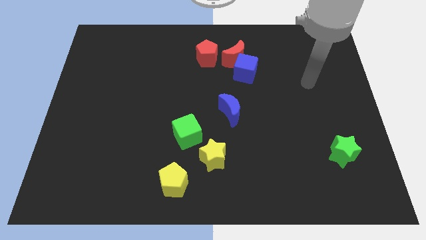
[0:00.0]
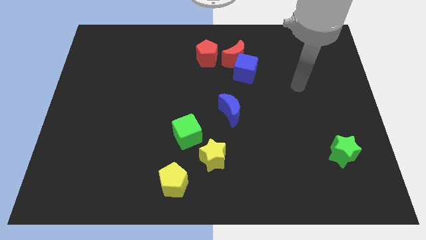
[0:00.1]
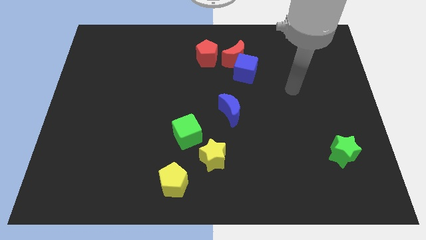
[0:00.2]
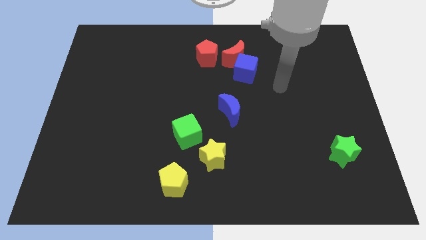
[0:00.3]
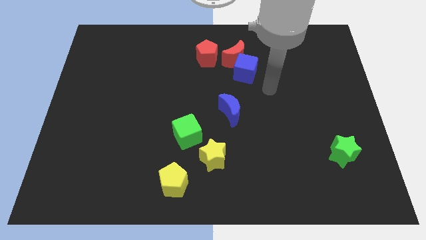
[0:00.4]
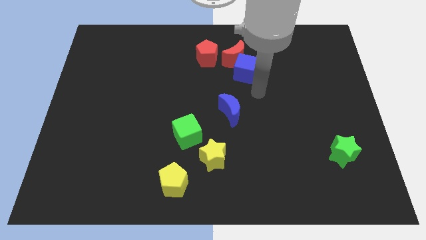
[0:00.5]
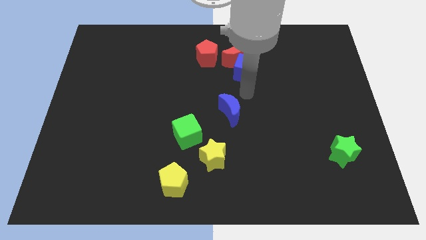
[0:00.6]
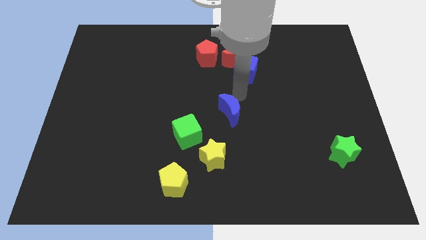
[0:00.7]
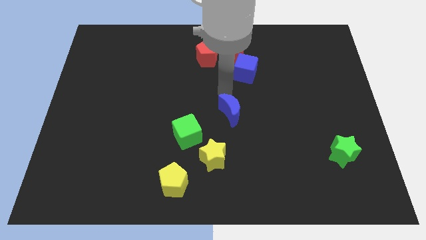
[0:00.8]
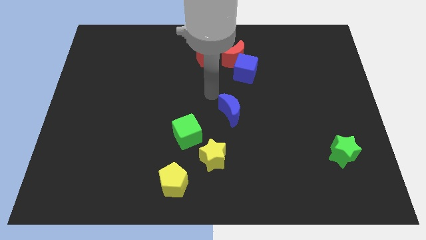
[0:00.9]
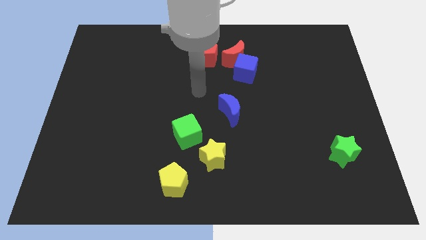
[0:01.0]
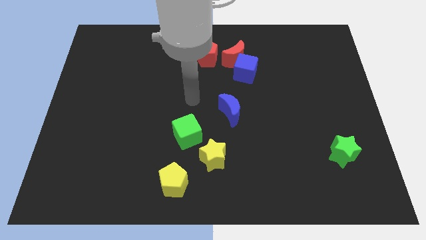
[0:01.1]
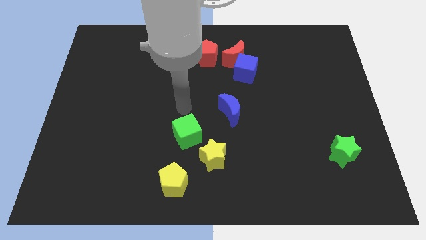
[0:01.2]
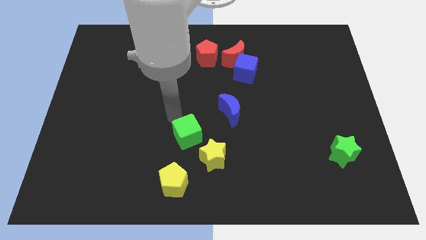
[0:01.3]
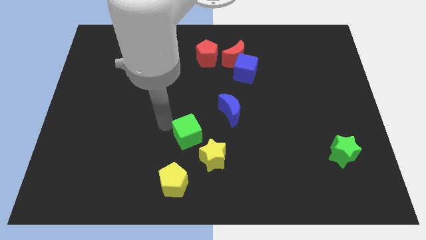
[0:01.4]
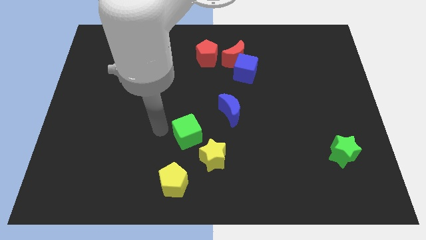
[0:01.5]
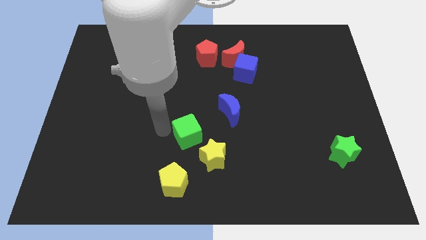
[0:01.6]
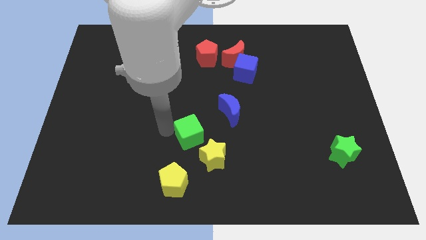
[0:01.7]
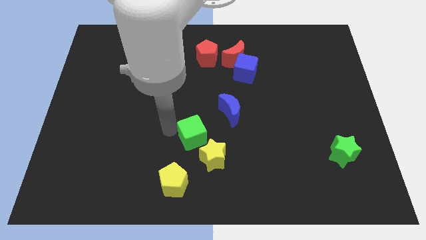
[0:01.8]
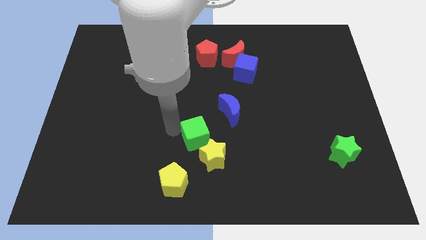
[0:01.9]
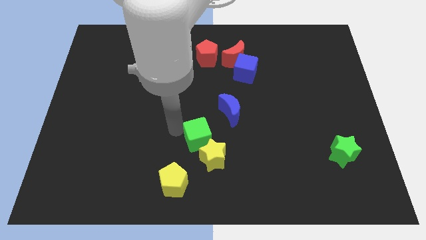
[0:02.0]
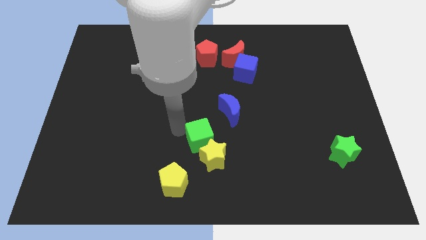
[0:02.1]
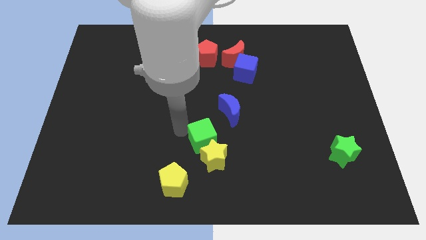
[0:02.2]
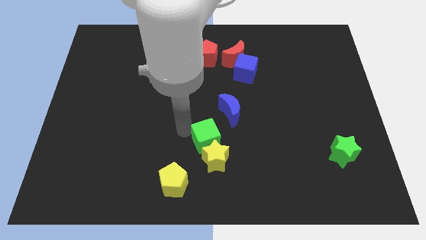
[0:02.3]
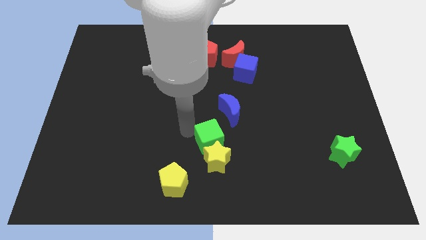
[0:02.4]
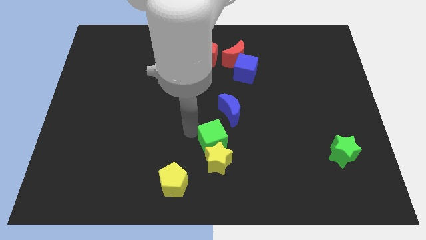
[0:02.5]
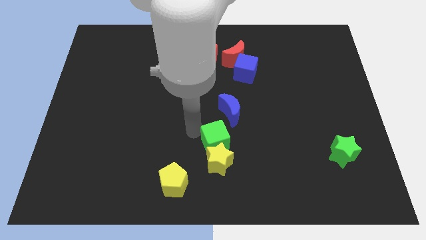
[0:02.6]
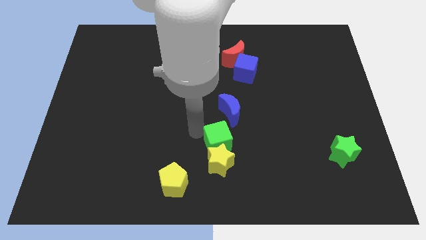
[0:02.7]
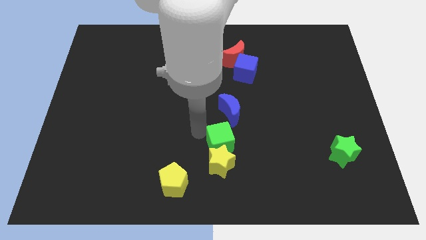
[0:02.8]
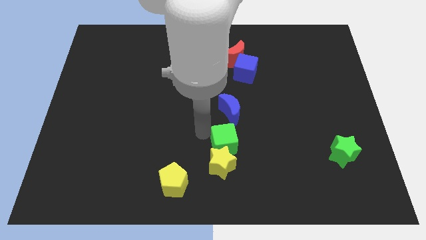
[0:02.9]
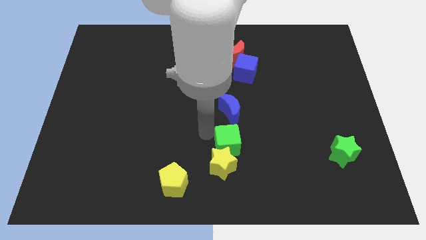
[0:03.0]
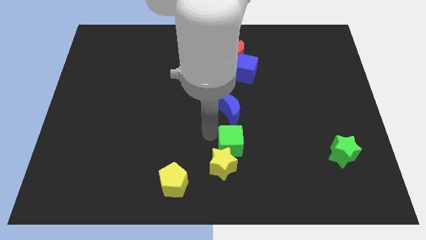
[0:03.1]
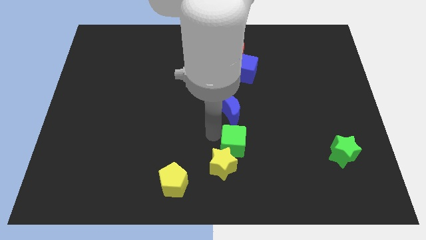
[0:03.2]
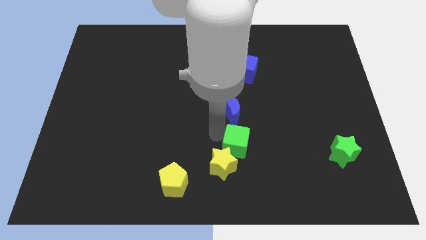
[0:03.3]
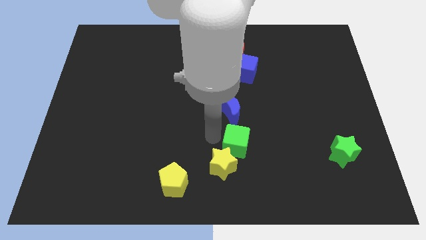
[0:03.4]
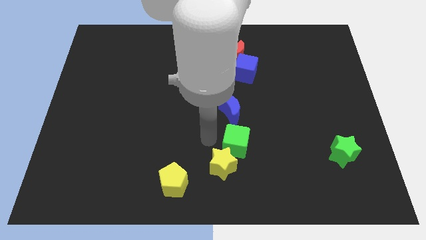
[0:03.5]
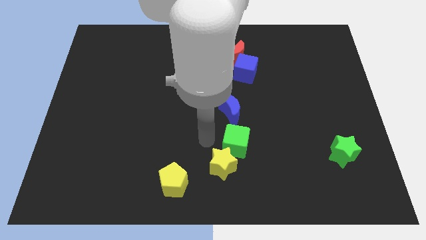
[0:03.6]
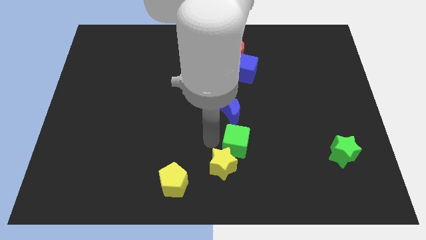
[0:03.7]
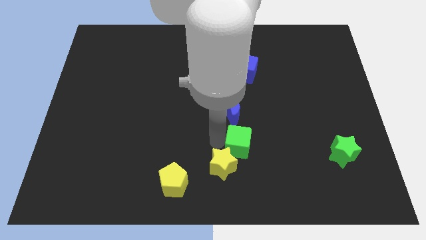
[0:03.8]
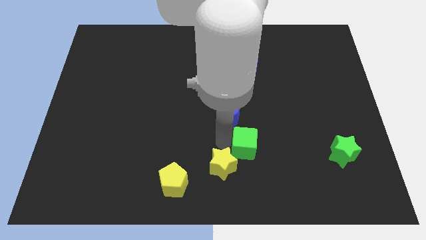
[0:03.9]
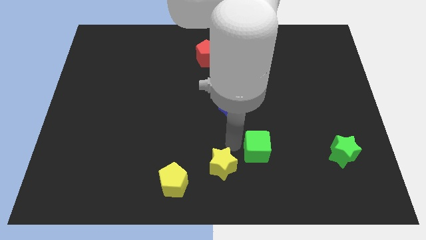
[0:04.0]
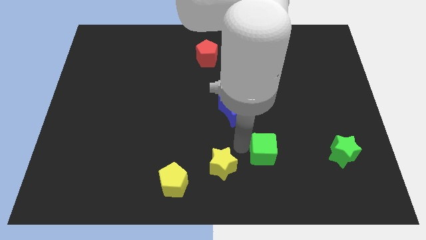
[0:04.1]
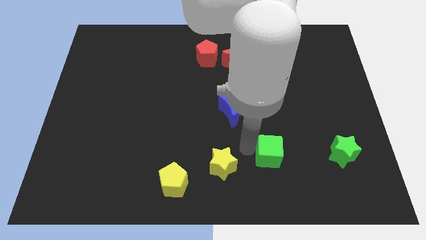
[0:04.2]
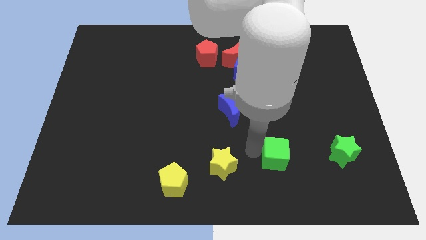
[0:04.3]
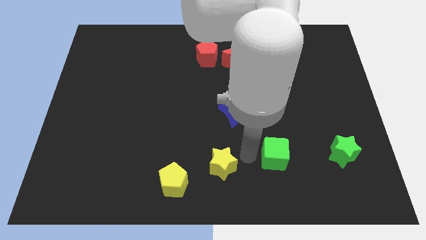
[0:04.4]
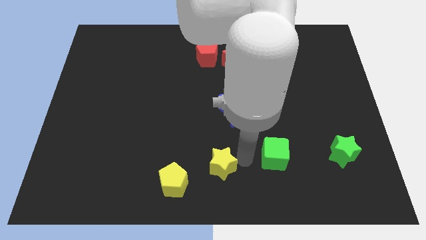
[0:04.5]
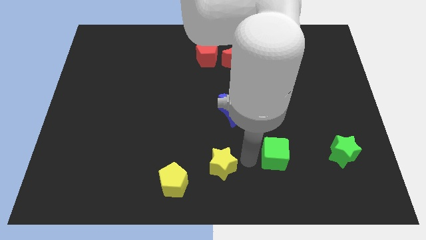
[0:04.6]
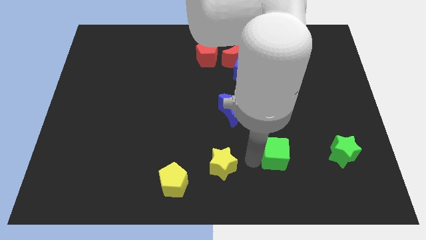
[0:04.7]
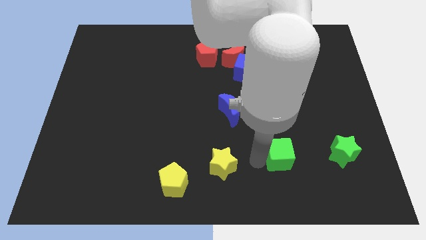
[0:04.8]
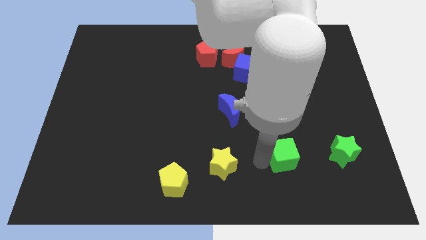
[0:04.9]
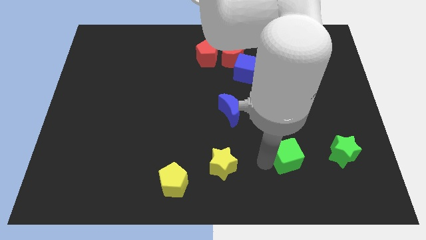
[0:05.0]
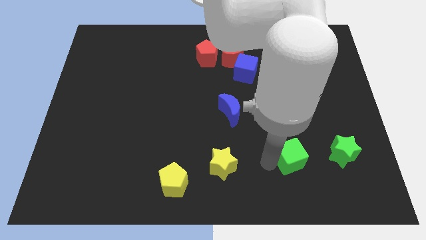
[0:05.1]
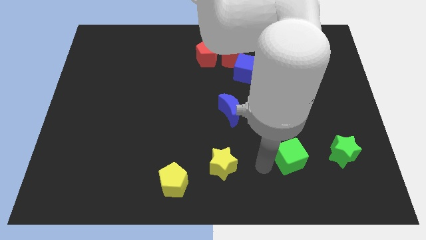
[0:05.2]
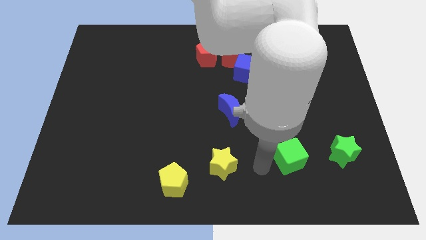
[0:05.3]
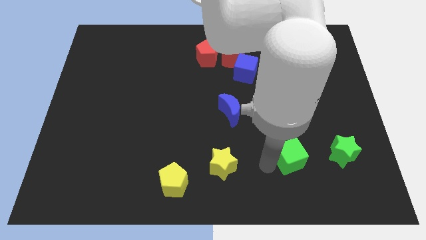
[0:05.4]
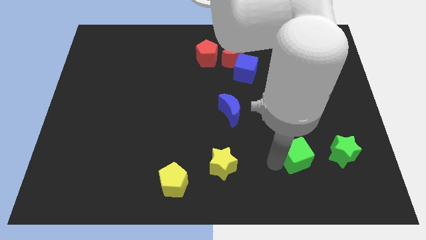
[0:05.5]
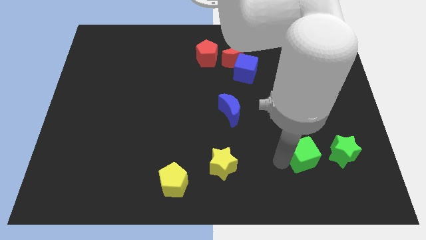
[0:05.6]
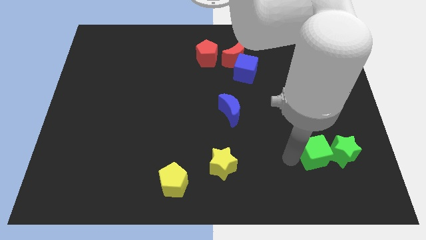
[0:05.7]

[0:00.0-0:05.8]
move the green cube close to the green star

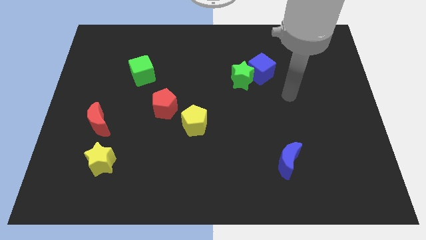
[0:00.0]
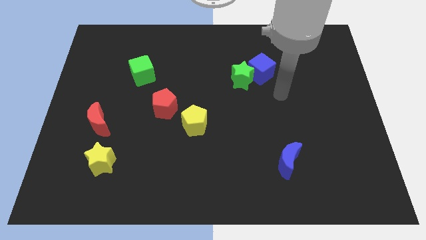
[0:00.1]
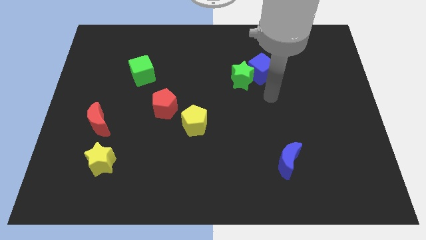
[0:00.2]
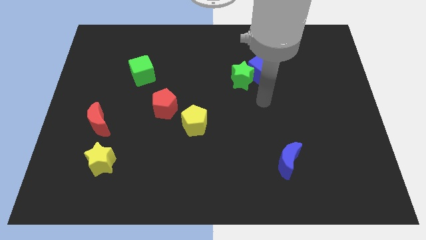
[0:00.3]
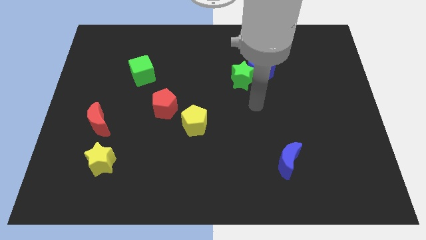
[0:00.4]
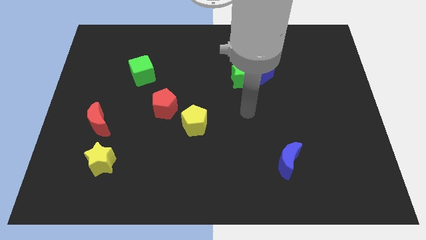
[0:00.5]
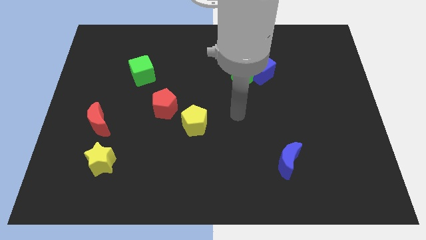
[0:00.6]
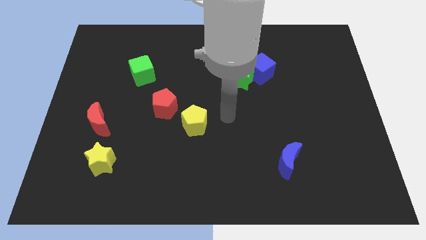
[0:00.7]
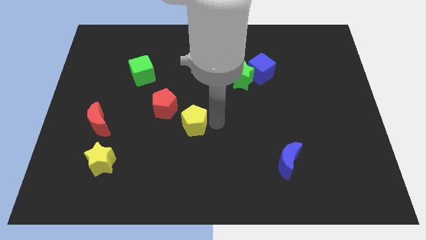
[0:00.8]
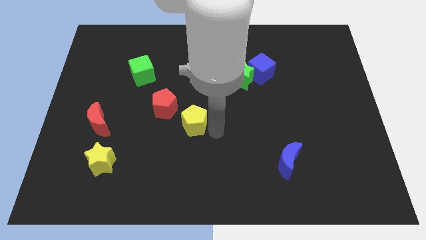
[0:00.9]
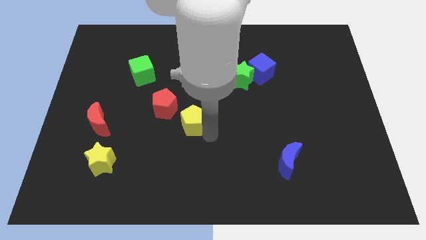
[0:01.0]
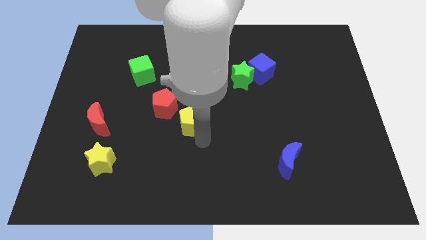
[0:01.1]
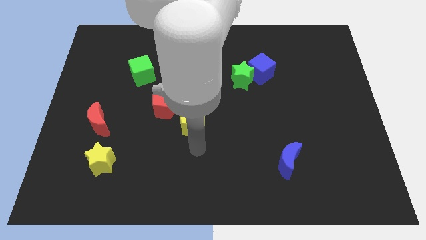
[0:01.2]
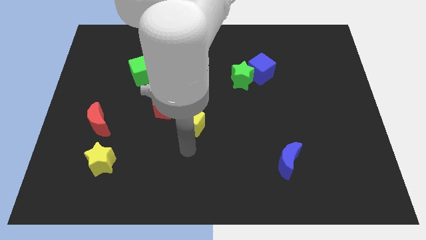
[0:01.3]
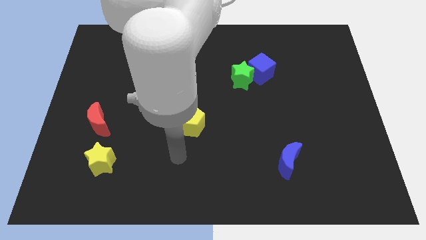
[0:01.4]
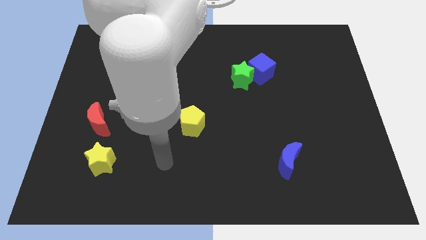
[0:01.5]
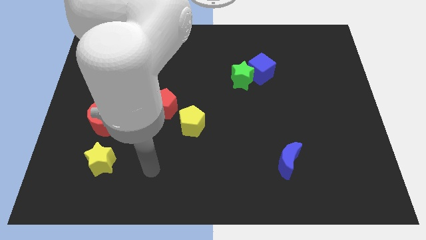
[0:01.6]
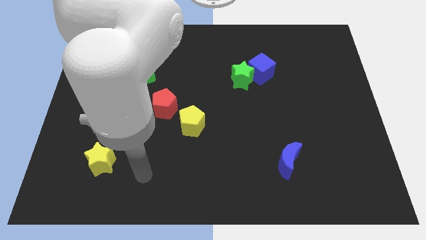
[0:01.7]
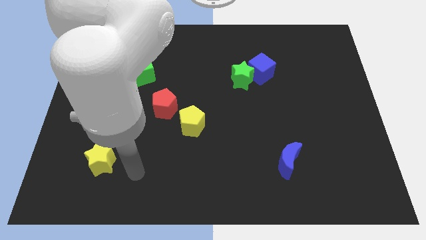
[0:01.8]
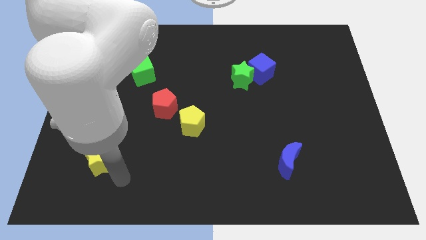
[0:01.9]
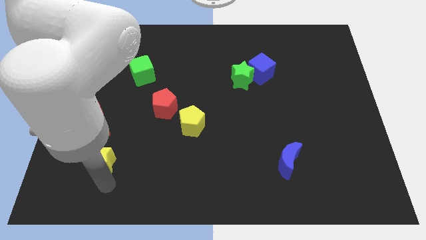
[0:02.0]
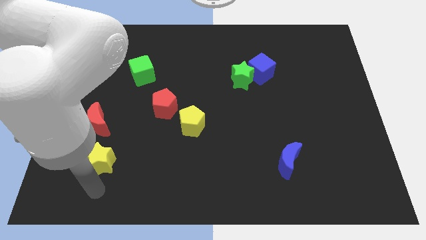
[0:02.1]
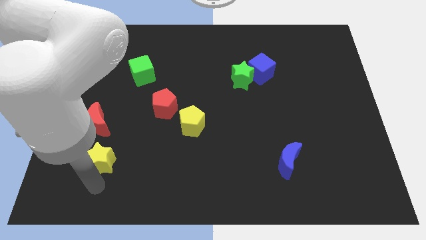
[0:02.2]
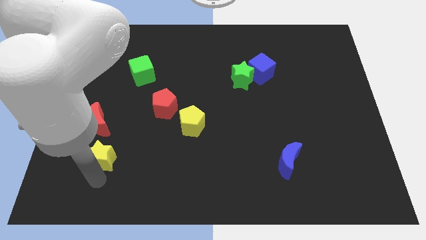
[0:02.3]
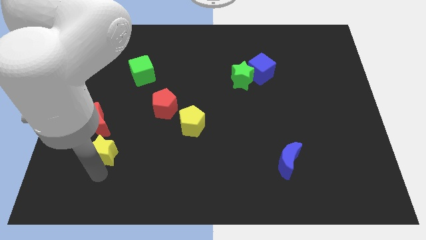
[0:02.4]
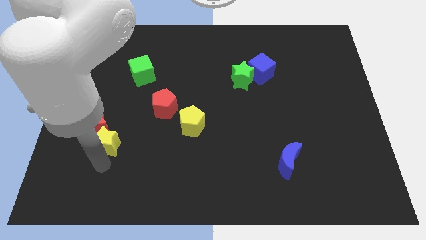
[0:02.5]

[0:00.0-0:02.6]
push the yellow star to the red moon
